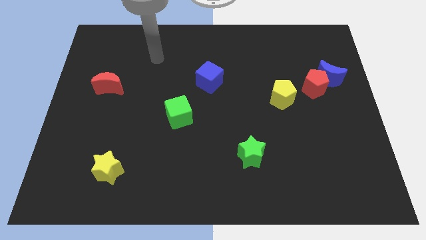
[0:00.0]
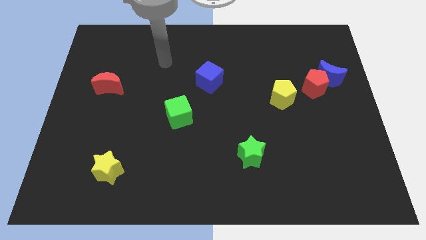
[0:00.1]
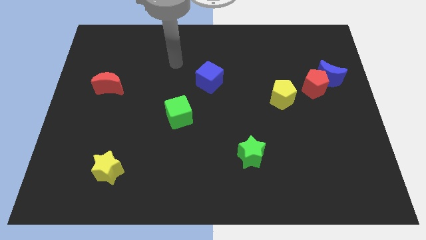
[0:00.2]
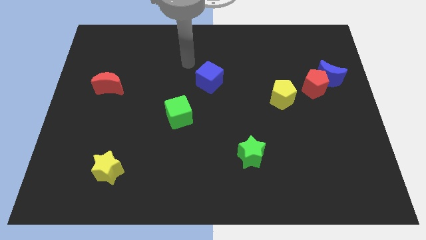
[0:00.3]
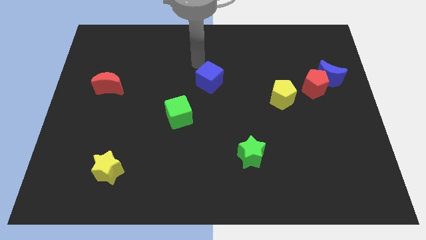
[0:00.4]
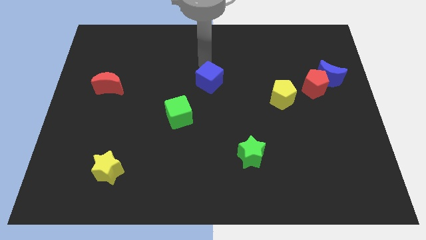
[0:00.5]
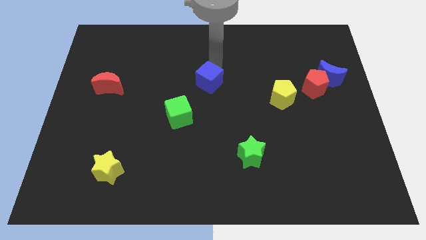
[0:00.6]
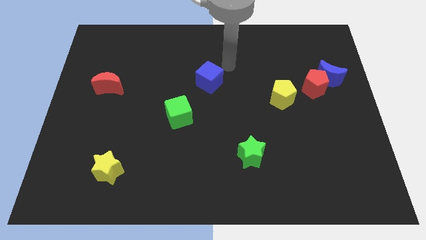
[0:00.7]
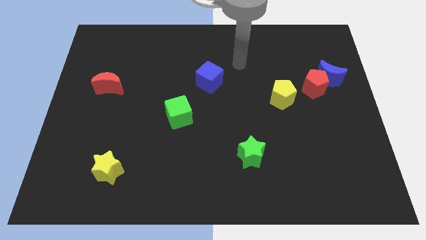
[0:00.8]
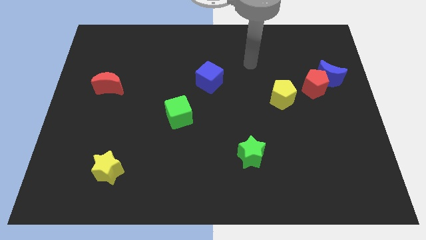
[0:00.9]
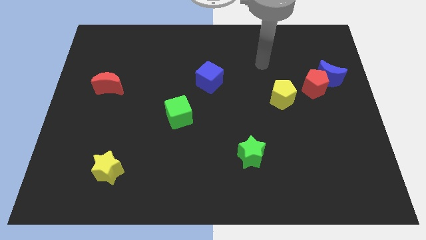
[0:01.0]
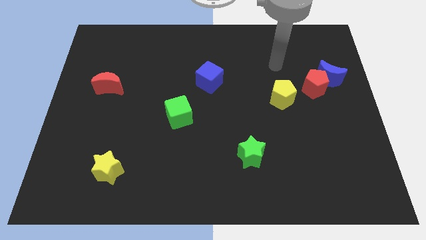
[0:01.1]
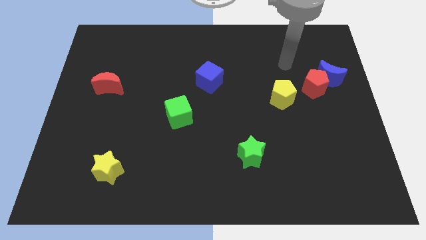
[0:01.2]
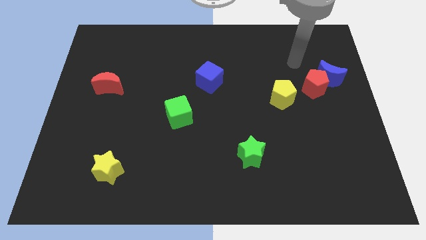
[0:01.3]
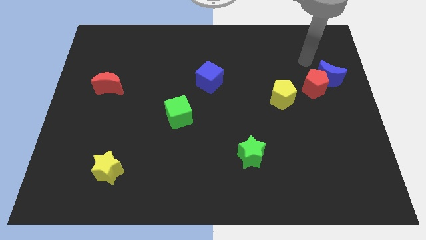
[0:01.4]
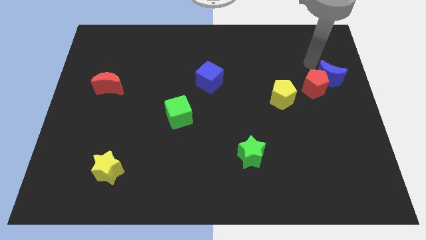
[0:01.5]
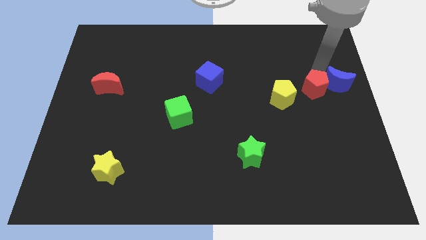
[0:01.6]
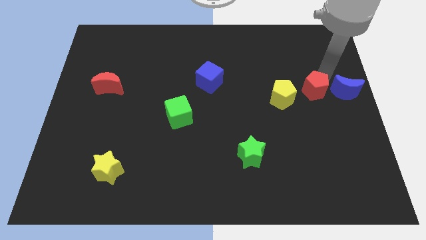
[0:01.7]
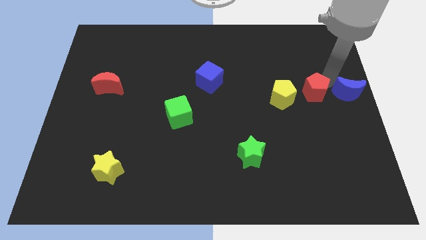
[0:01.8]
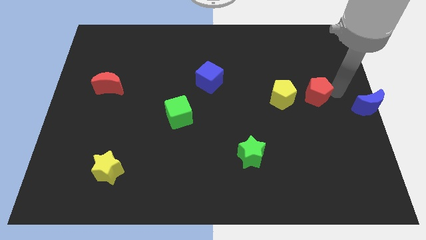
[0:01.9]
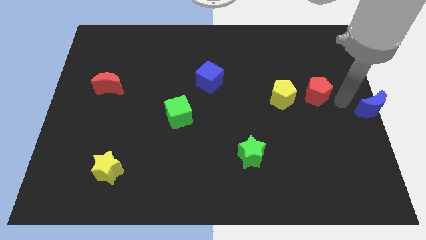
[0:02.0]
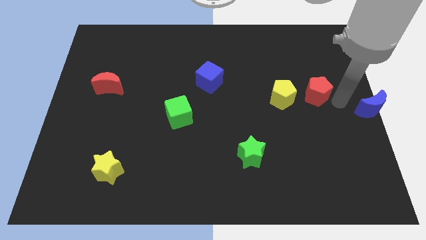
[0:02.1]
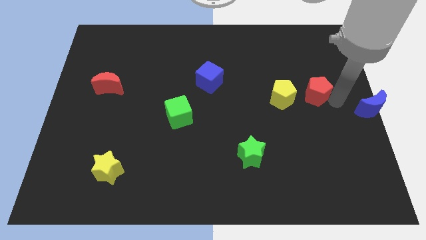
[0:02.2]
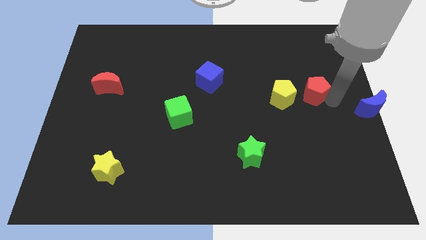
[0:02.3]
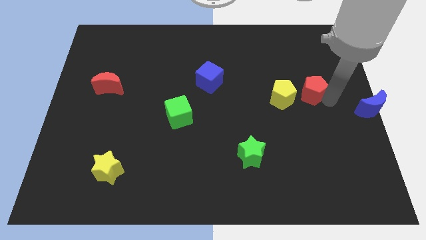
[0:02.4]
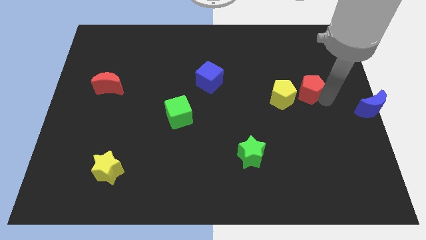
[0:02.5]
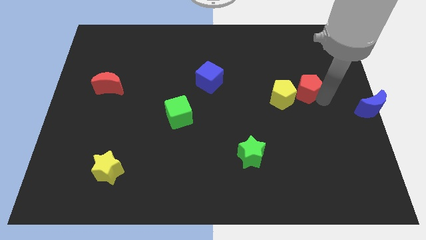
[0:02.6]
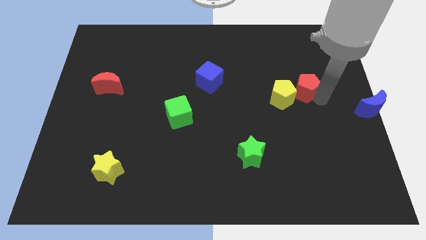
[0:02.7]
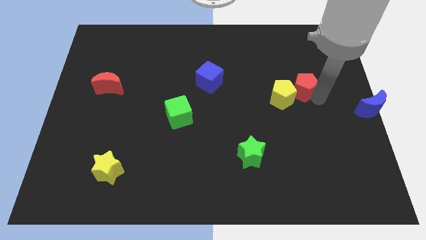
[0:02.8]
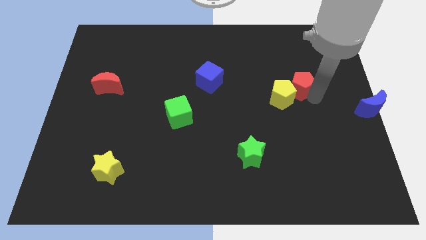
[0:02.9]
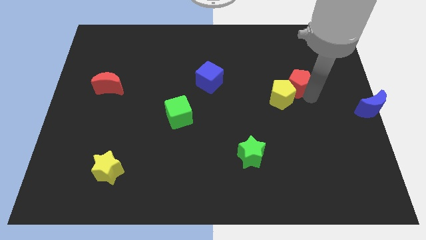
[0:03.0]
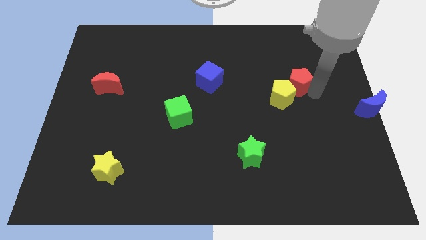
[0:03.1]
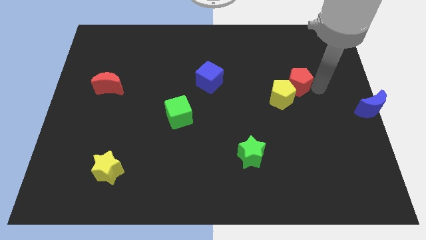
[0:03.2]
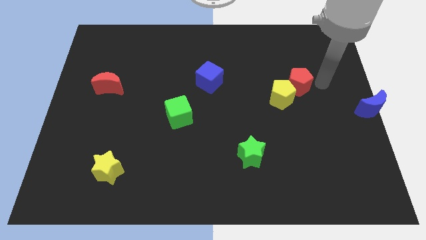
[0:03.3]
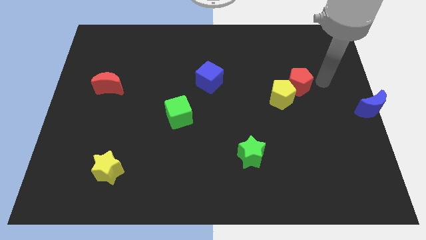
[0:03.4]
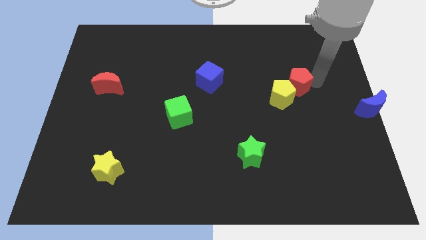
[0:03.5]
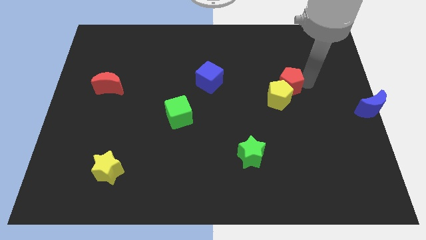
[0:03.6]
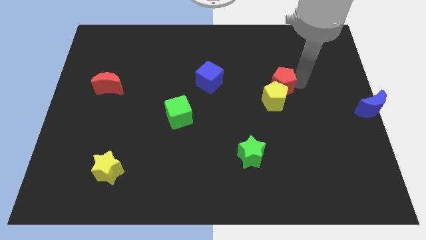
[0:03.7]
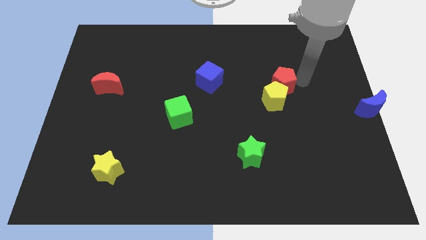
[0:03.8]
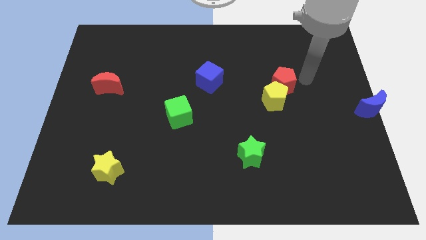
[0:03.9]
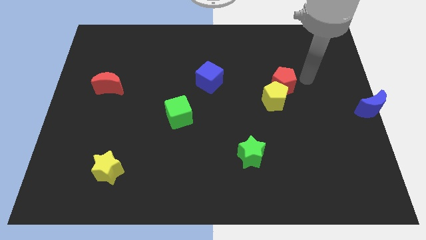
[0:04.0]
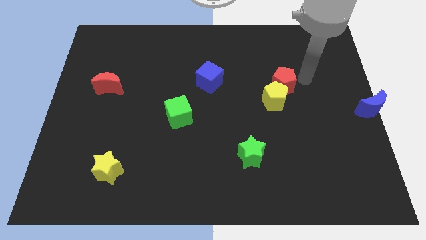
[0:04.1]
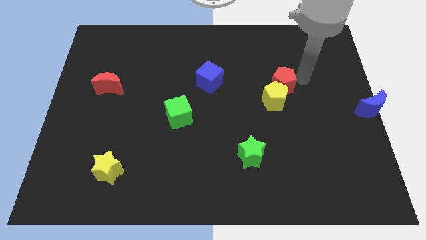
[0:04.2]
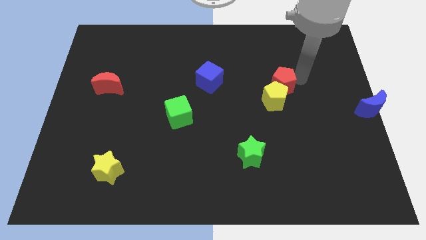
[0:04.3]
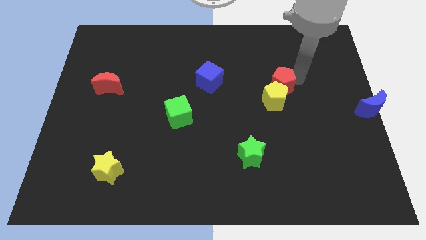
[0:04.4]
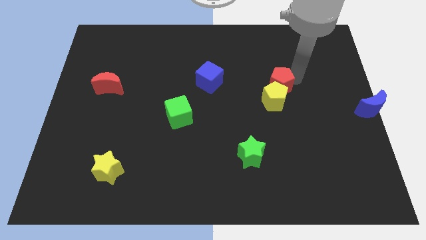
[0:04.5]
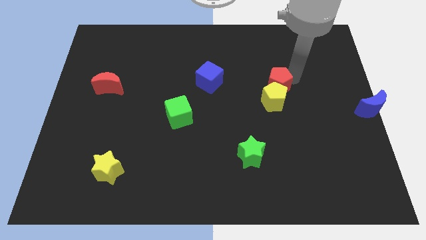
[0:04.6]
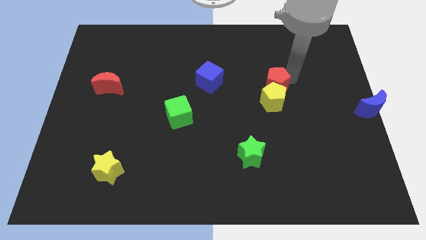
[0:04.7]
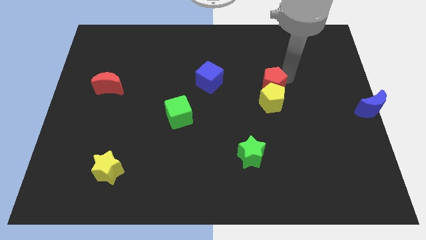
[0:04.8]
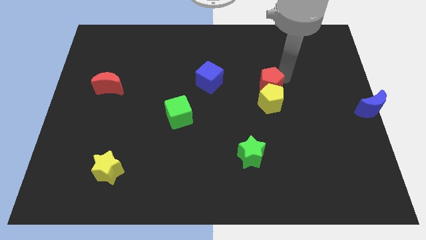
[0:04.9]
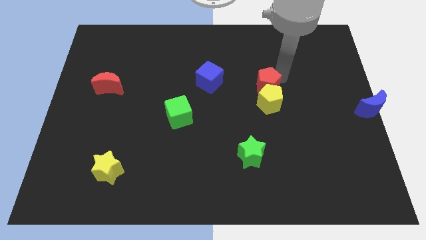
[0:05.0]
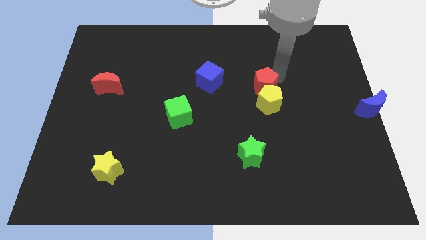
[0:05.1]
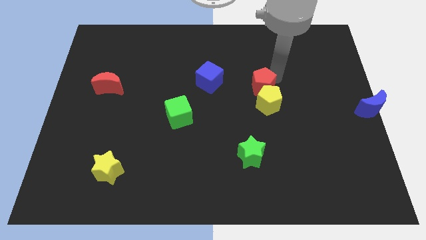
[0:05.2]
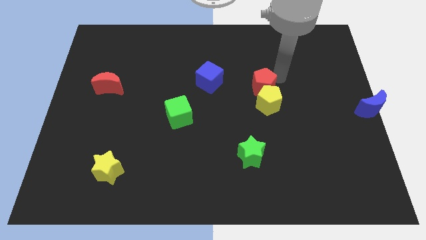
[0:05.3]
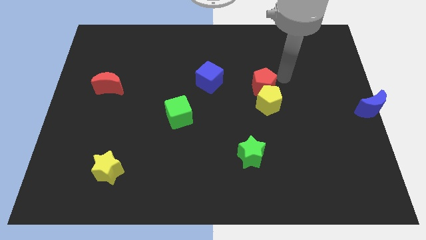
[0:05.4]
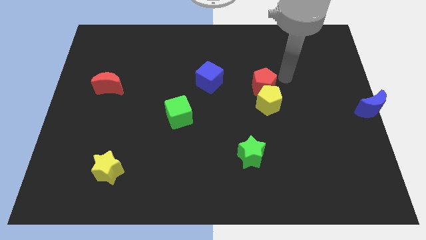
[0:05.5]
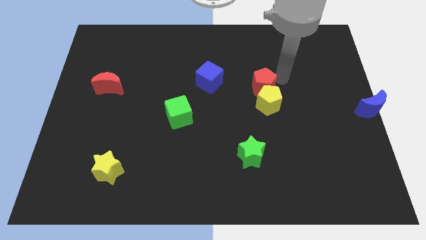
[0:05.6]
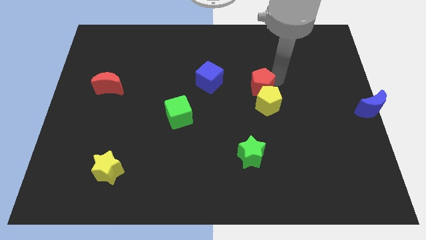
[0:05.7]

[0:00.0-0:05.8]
push the red pentagon to the center of the board

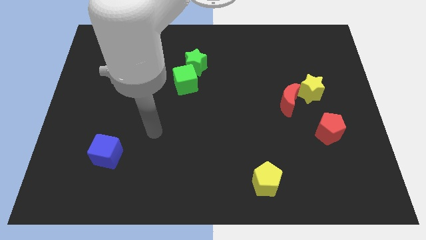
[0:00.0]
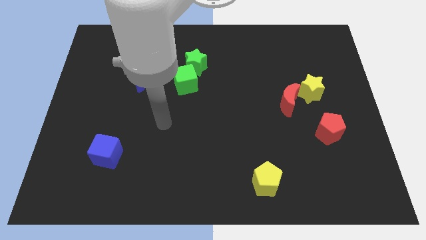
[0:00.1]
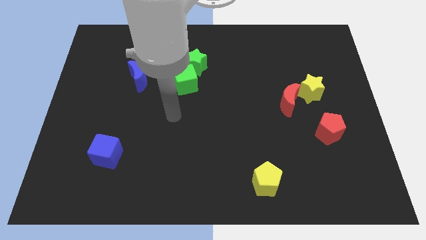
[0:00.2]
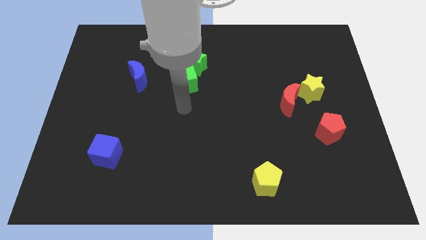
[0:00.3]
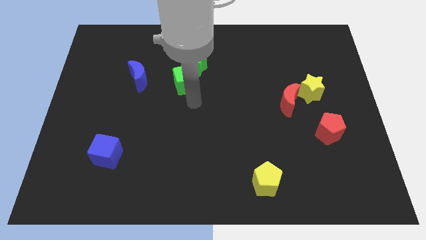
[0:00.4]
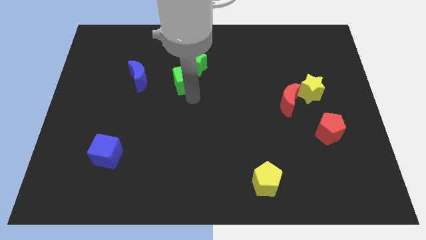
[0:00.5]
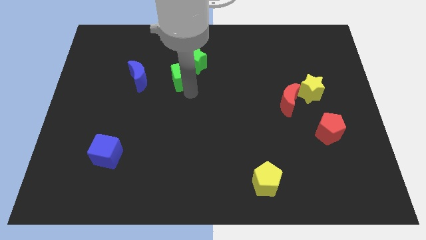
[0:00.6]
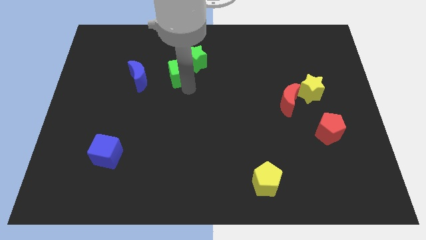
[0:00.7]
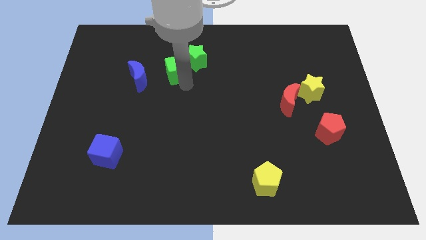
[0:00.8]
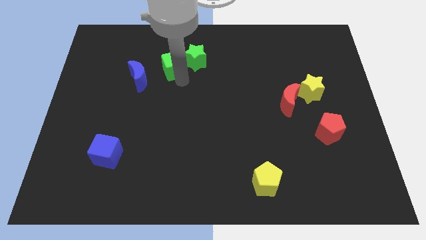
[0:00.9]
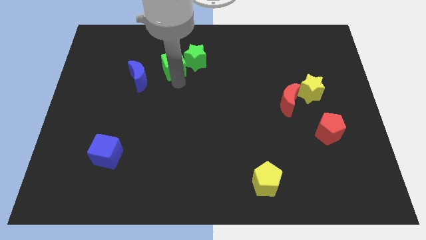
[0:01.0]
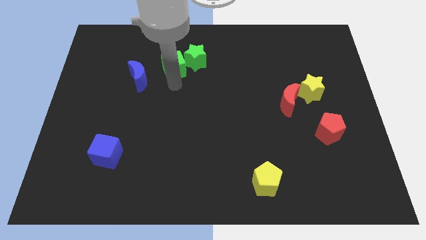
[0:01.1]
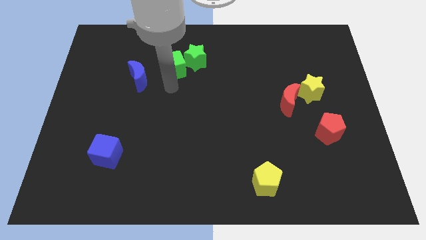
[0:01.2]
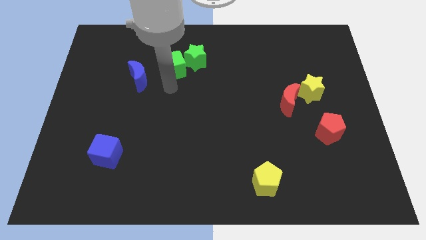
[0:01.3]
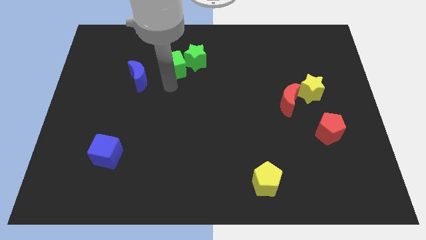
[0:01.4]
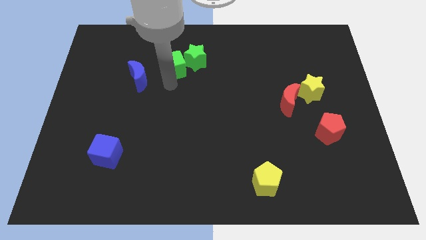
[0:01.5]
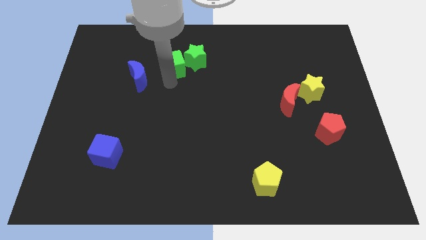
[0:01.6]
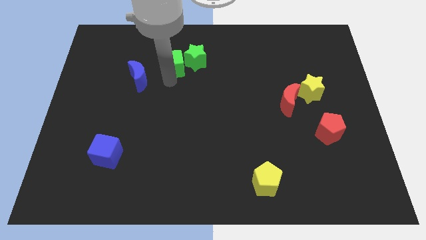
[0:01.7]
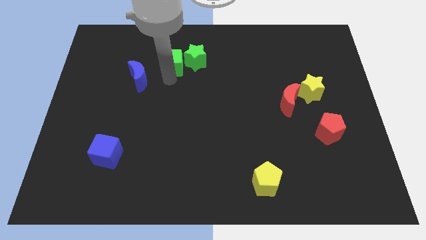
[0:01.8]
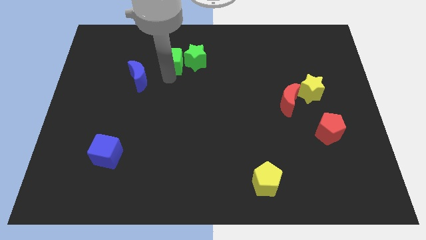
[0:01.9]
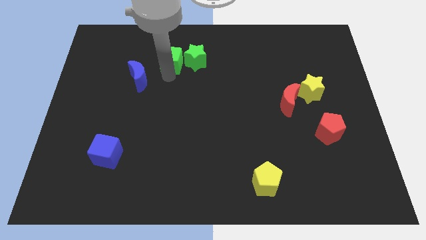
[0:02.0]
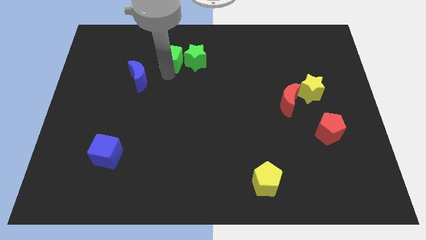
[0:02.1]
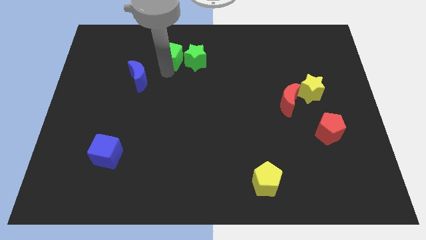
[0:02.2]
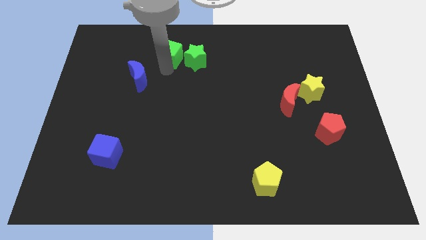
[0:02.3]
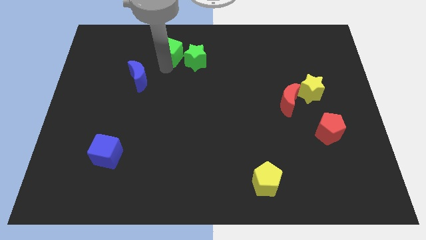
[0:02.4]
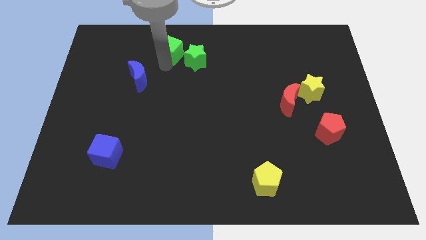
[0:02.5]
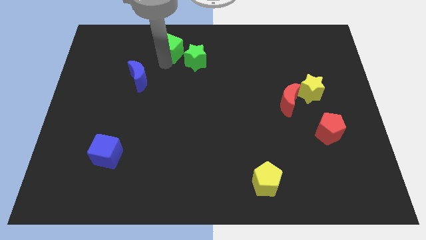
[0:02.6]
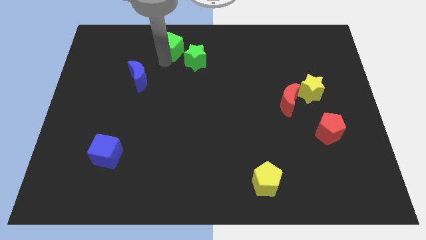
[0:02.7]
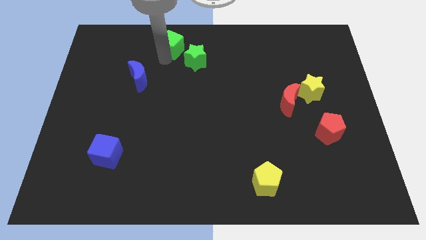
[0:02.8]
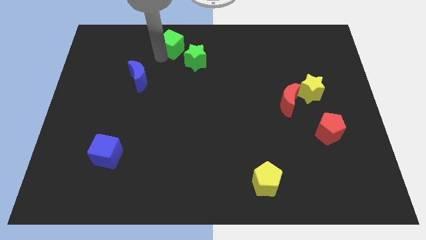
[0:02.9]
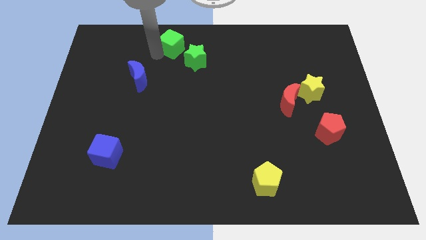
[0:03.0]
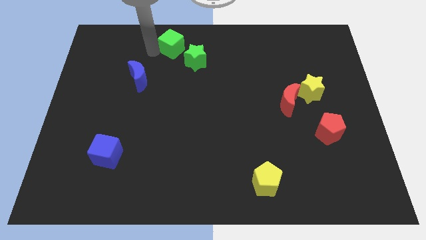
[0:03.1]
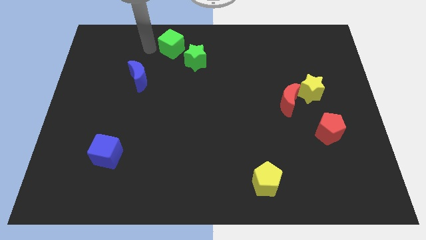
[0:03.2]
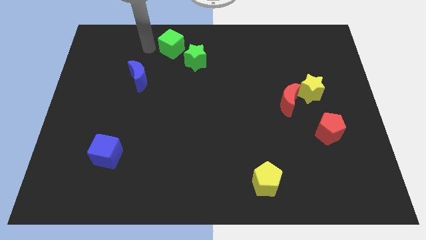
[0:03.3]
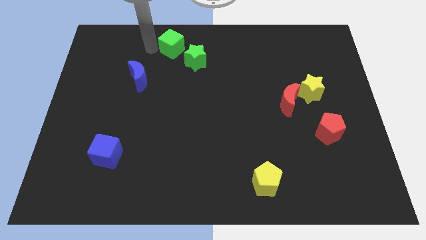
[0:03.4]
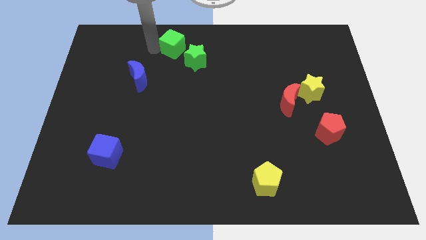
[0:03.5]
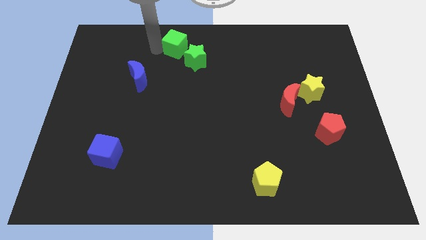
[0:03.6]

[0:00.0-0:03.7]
slide the green cube to the top
